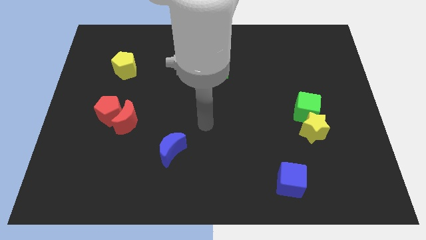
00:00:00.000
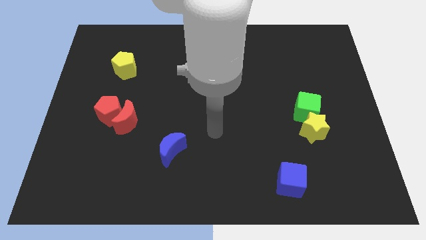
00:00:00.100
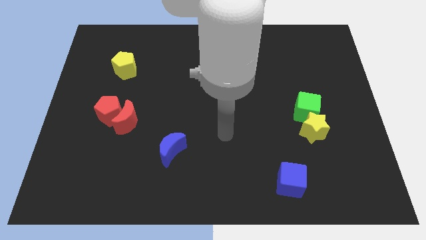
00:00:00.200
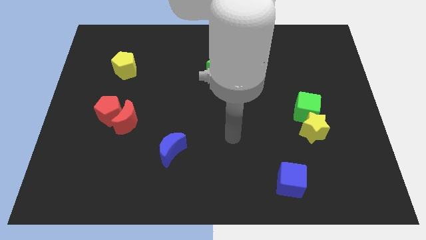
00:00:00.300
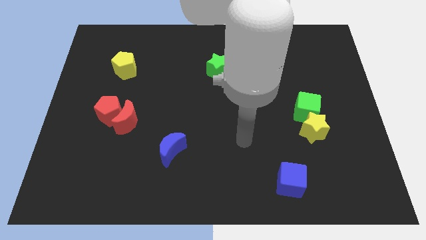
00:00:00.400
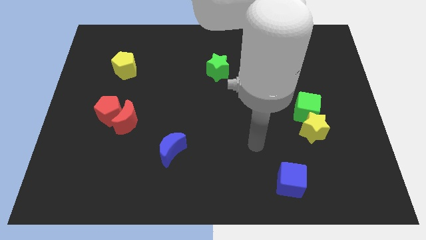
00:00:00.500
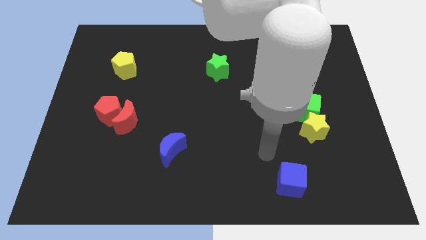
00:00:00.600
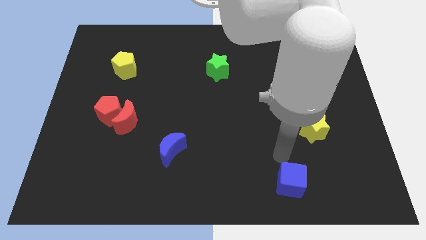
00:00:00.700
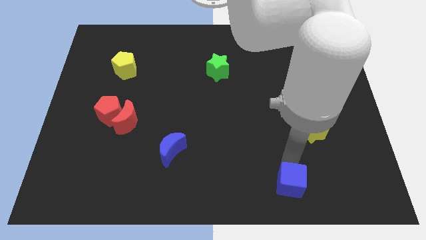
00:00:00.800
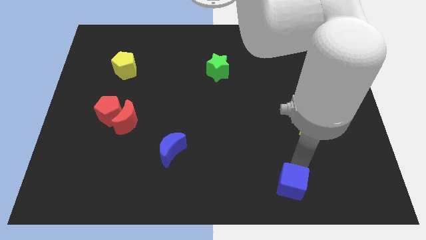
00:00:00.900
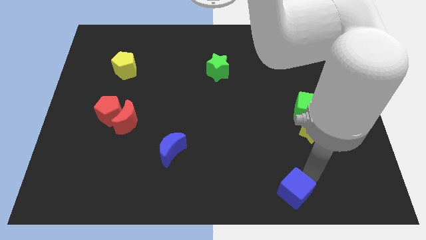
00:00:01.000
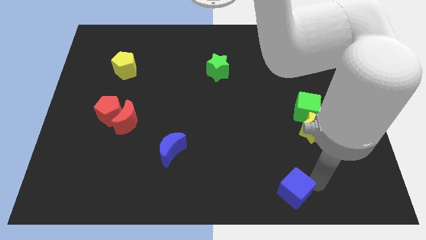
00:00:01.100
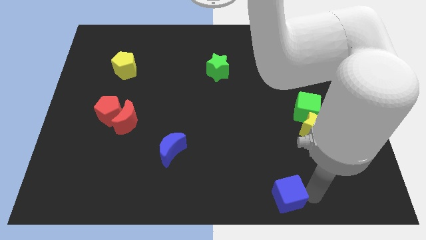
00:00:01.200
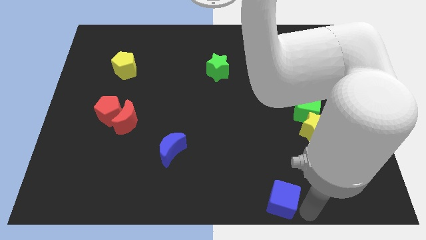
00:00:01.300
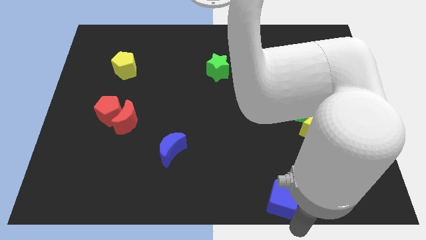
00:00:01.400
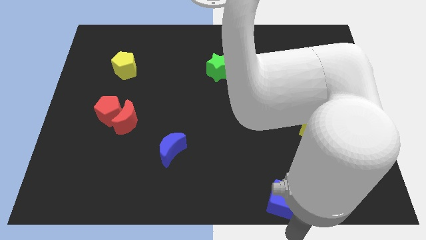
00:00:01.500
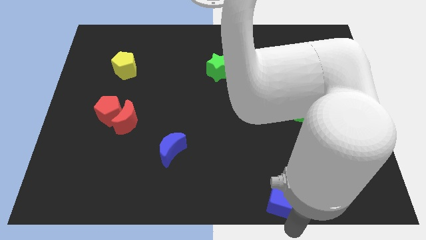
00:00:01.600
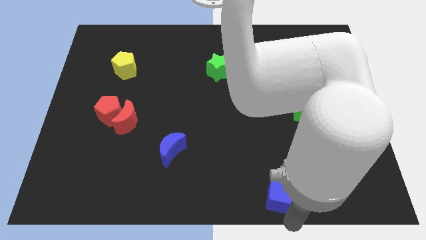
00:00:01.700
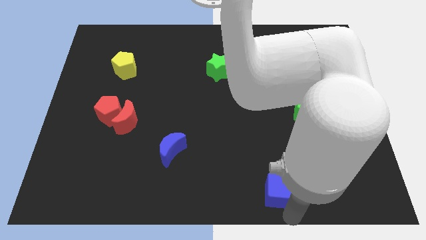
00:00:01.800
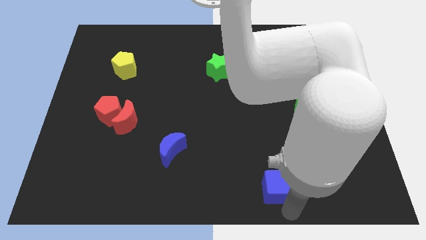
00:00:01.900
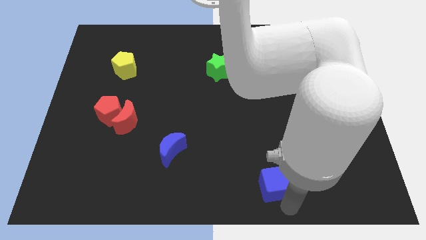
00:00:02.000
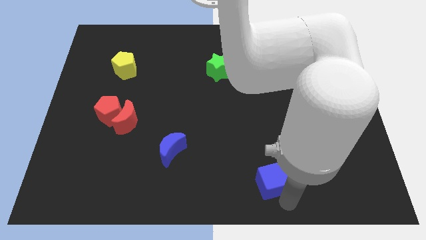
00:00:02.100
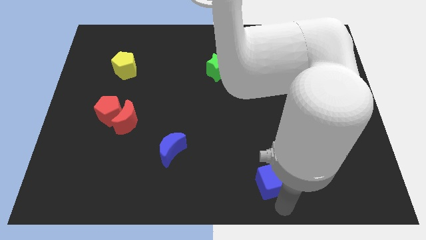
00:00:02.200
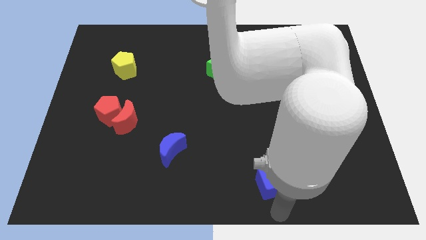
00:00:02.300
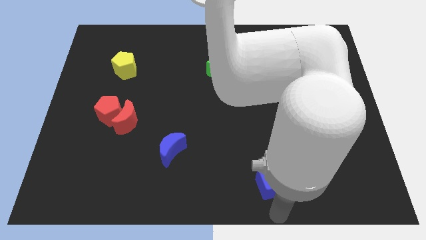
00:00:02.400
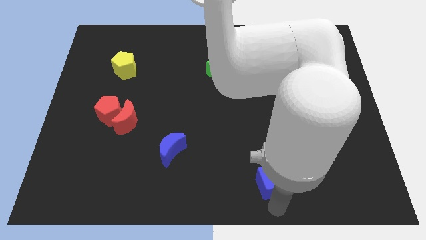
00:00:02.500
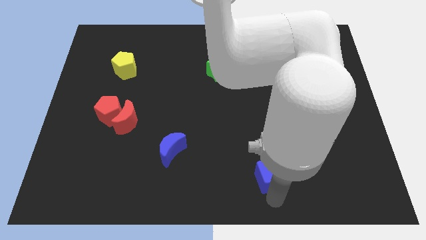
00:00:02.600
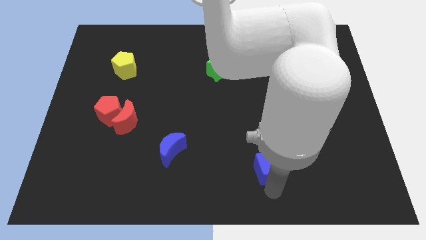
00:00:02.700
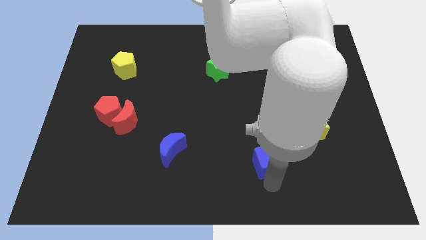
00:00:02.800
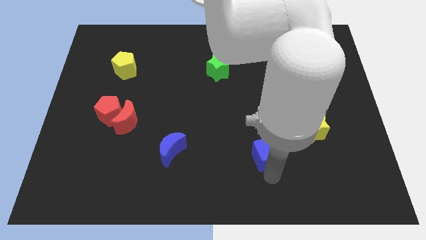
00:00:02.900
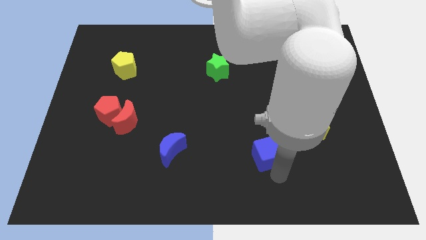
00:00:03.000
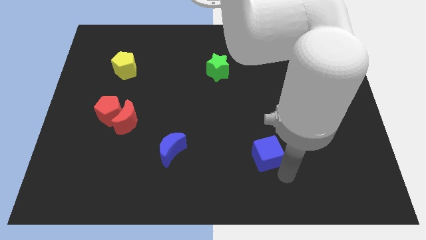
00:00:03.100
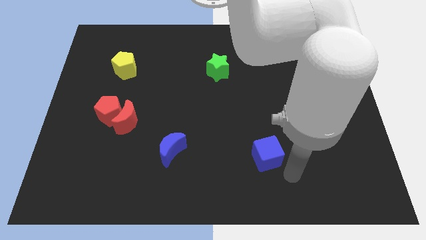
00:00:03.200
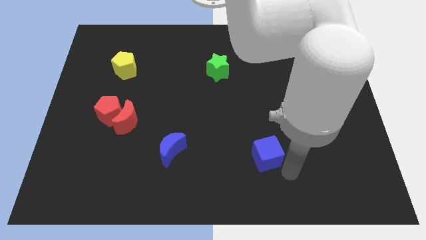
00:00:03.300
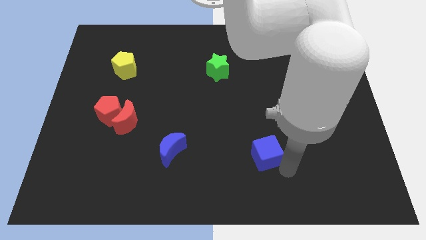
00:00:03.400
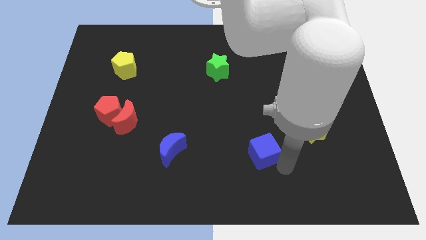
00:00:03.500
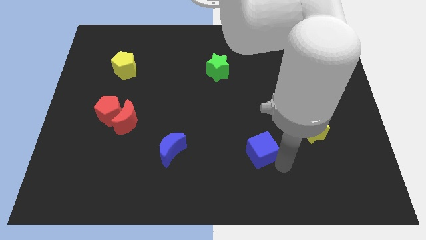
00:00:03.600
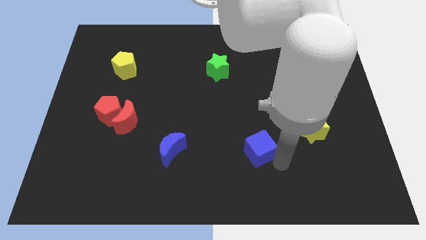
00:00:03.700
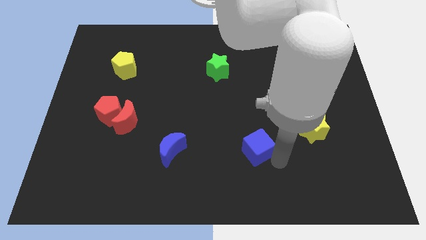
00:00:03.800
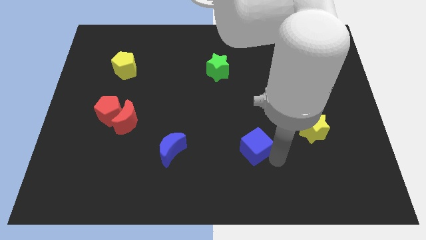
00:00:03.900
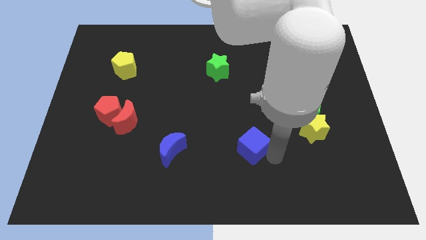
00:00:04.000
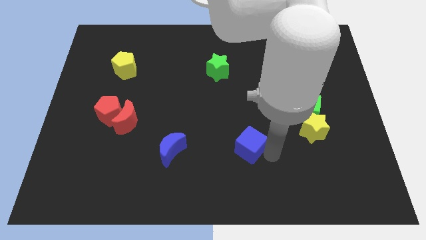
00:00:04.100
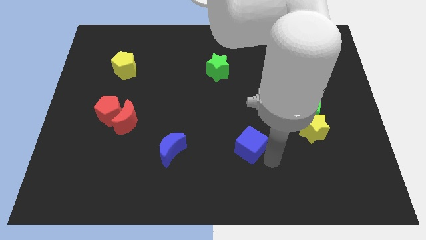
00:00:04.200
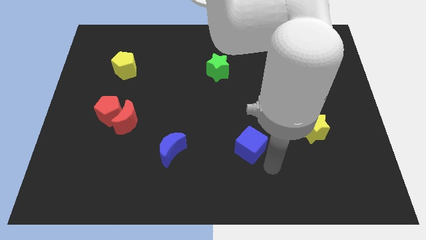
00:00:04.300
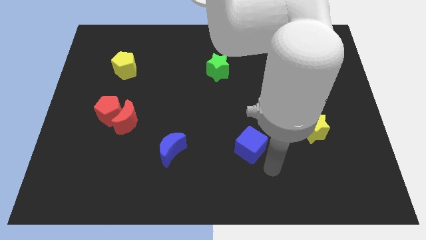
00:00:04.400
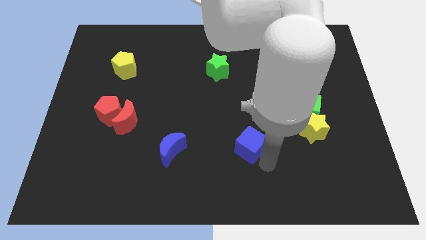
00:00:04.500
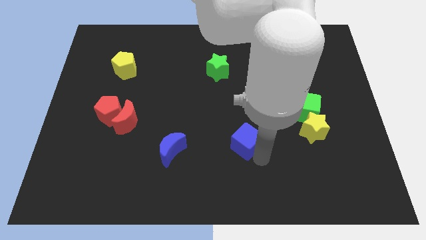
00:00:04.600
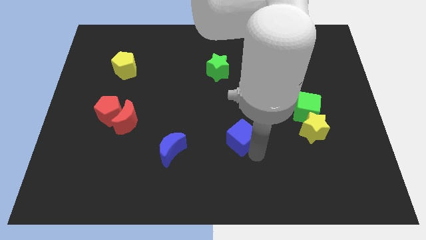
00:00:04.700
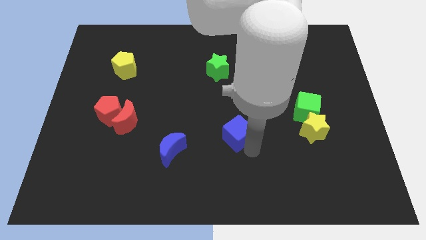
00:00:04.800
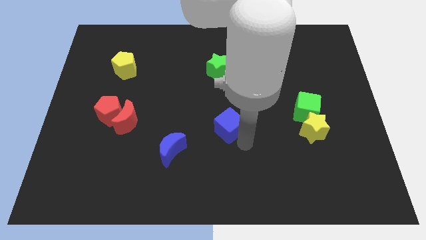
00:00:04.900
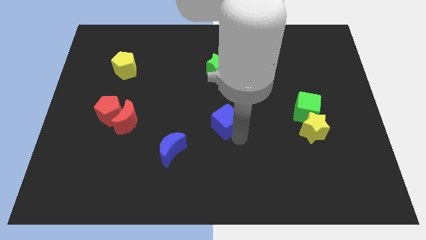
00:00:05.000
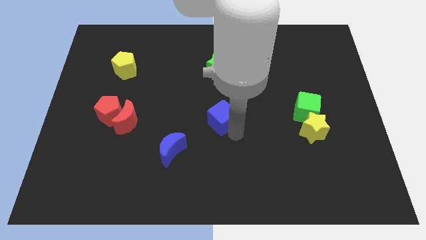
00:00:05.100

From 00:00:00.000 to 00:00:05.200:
move the blue cube up and left diagonally

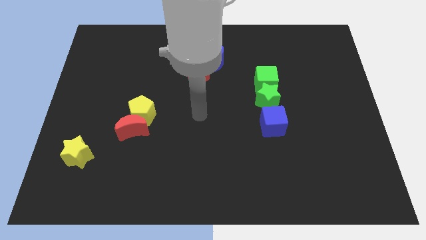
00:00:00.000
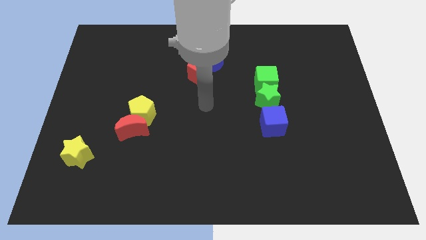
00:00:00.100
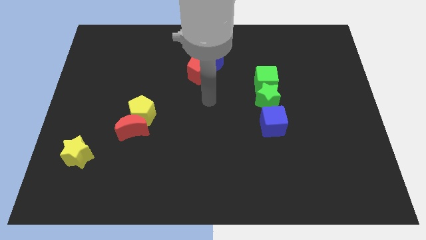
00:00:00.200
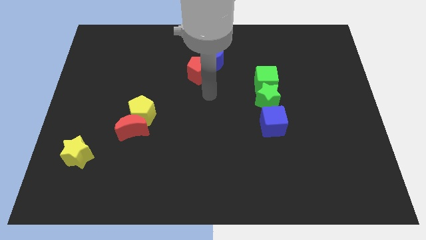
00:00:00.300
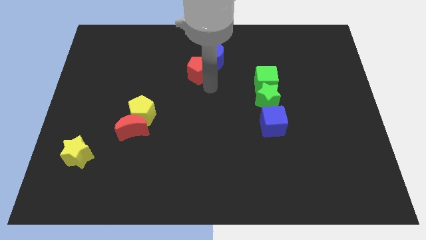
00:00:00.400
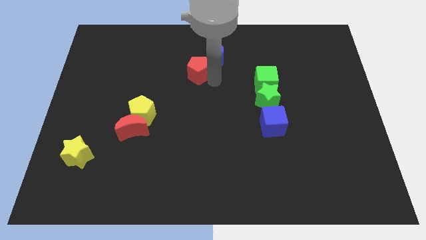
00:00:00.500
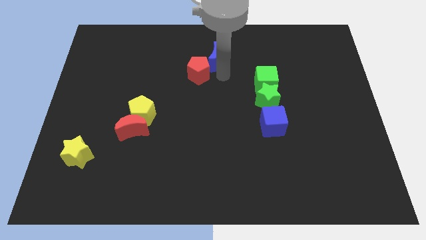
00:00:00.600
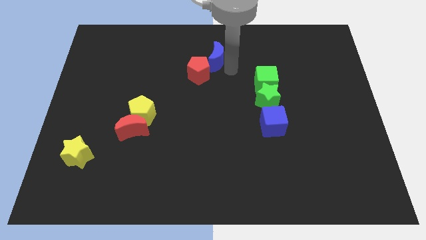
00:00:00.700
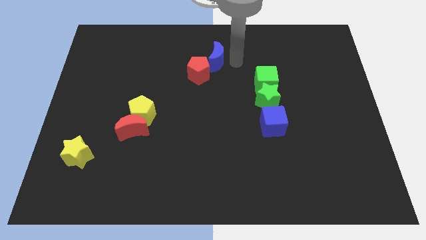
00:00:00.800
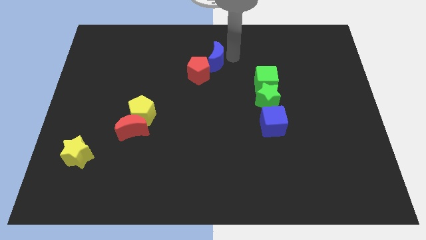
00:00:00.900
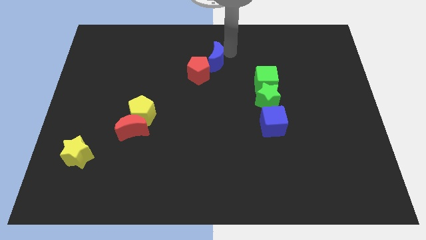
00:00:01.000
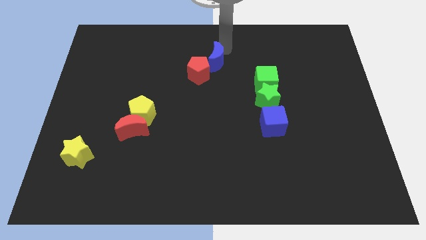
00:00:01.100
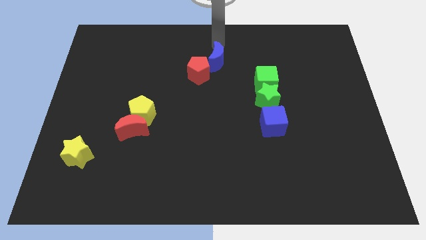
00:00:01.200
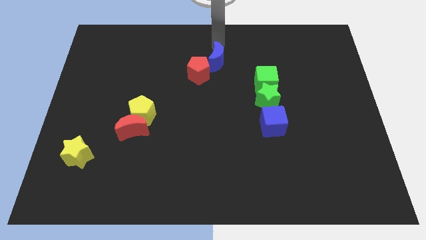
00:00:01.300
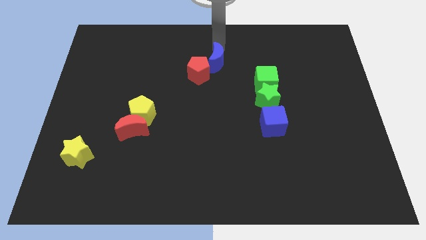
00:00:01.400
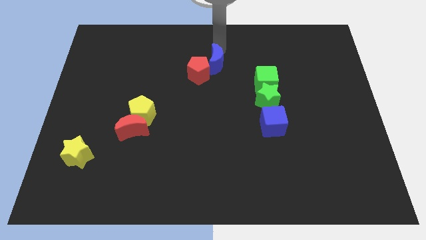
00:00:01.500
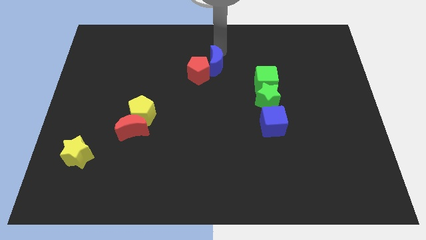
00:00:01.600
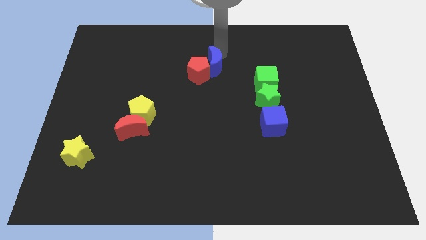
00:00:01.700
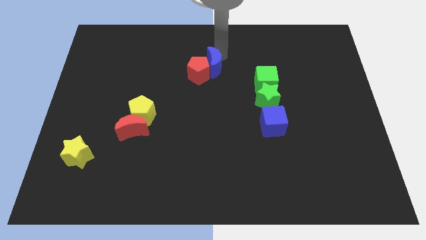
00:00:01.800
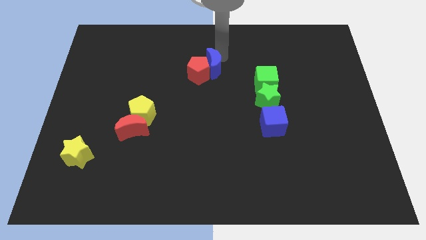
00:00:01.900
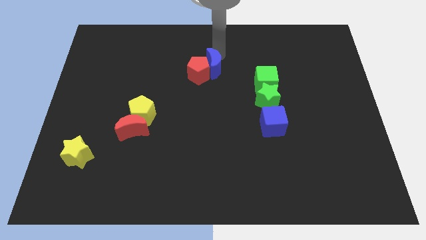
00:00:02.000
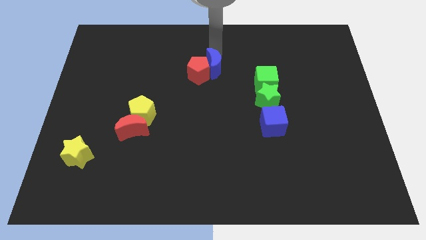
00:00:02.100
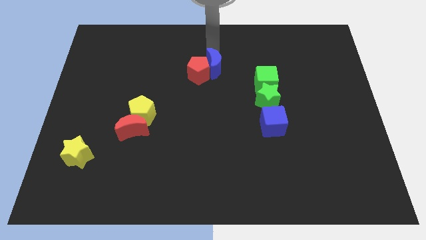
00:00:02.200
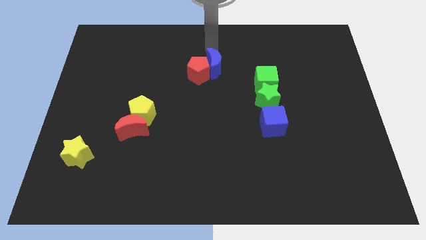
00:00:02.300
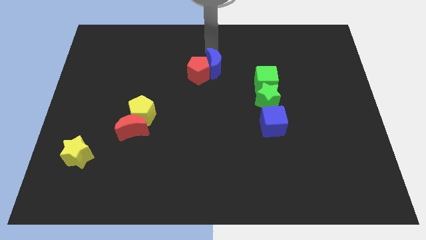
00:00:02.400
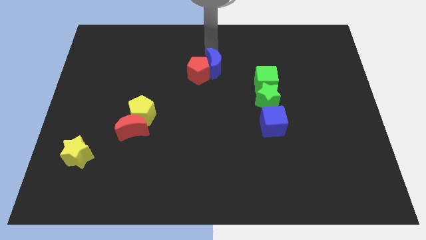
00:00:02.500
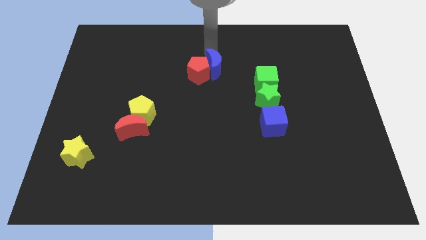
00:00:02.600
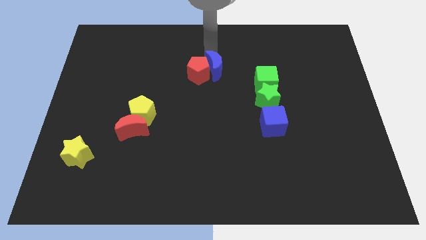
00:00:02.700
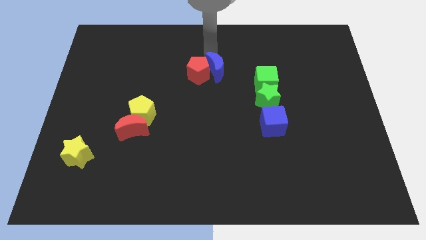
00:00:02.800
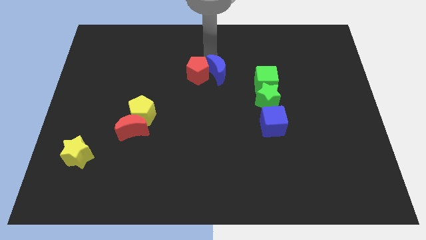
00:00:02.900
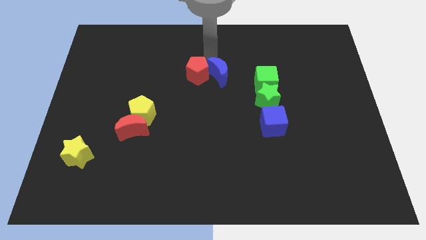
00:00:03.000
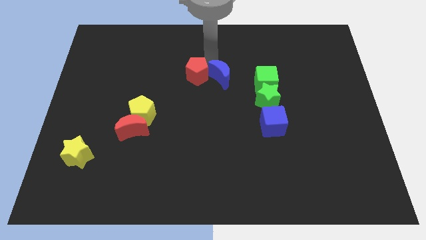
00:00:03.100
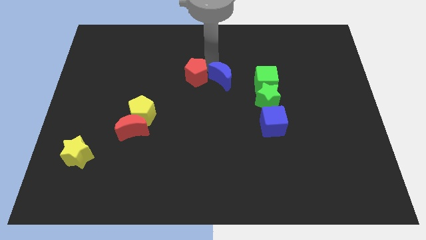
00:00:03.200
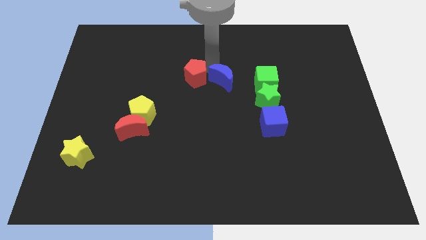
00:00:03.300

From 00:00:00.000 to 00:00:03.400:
slide the blue moon down somewhat
